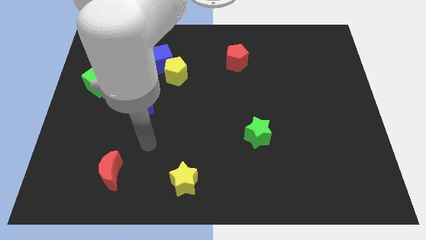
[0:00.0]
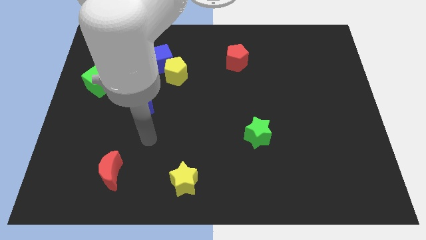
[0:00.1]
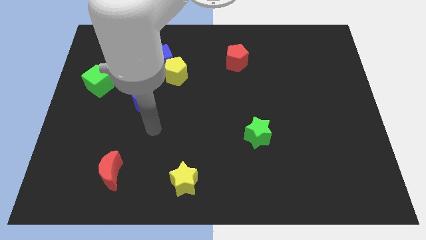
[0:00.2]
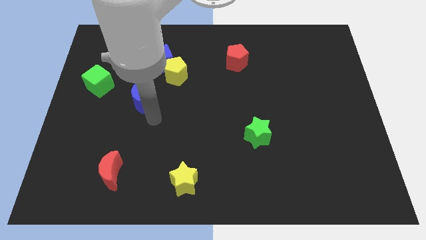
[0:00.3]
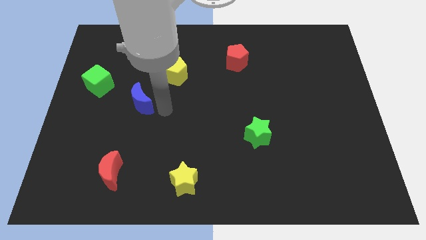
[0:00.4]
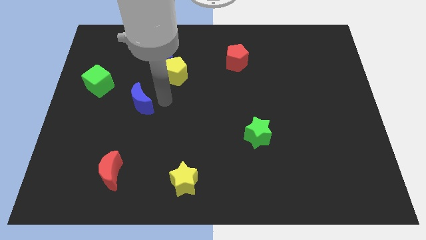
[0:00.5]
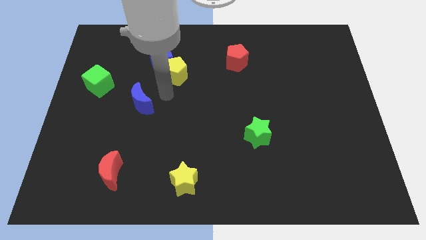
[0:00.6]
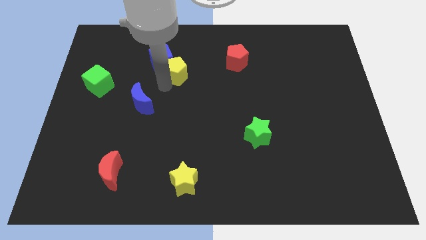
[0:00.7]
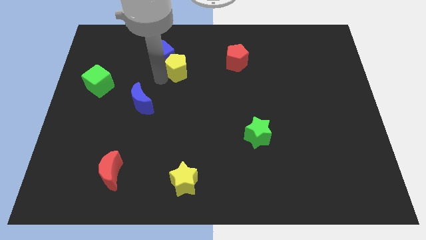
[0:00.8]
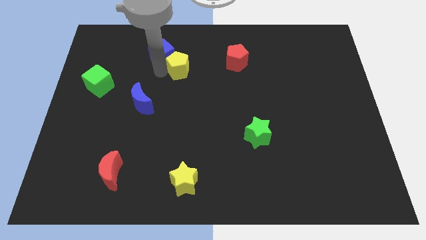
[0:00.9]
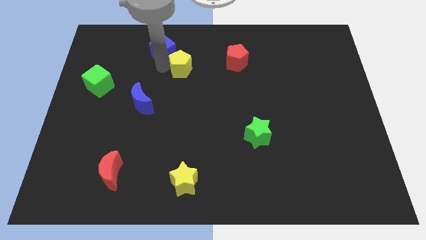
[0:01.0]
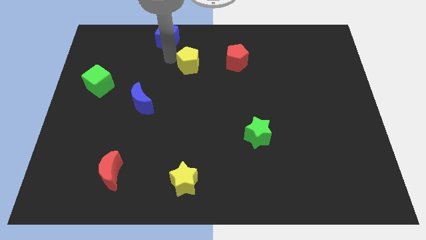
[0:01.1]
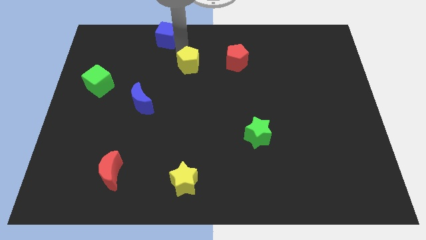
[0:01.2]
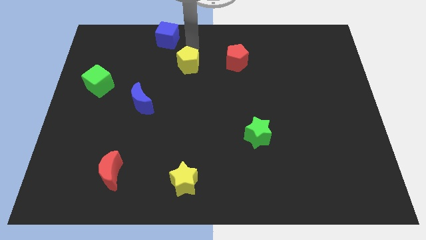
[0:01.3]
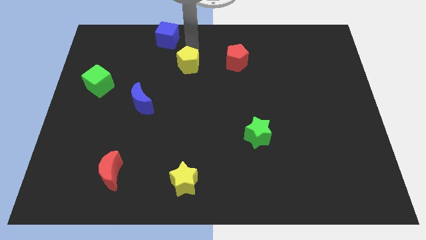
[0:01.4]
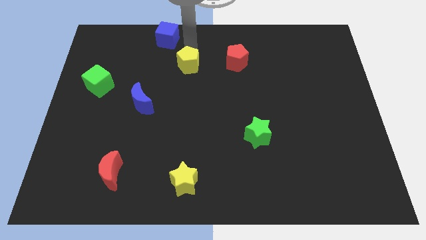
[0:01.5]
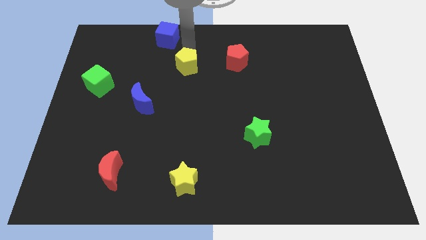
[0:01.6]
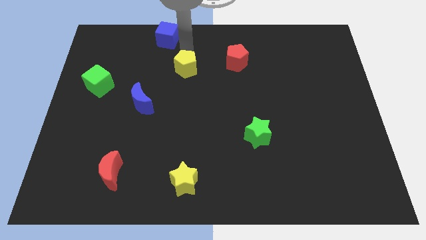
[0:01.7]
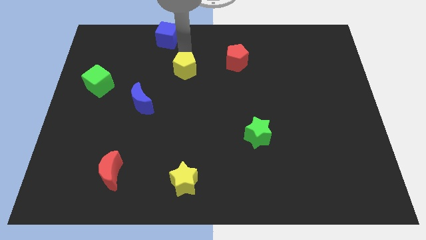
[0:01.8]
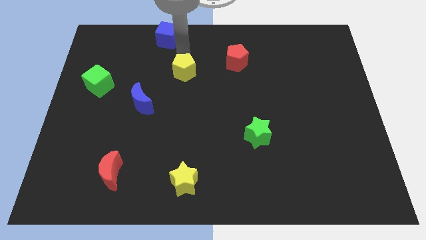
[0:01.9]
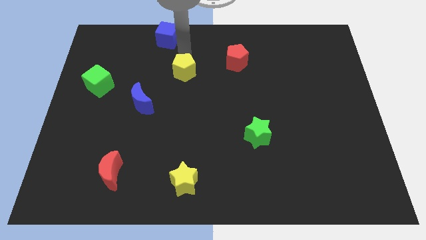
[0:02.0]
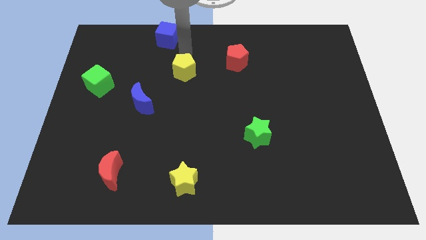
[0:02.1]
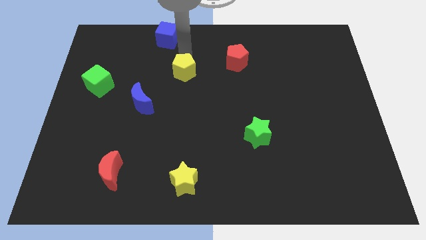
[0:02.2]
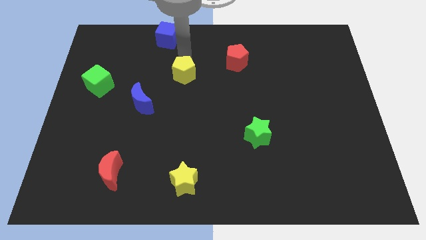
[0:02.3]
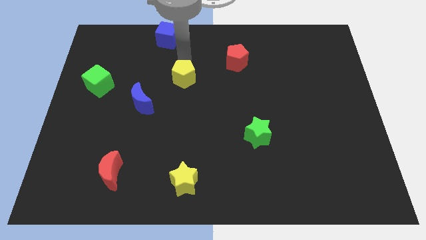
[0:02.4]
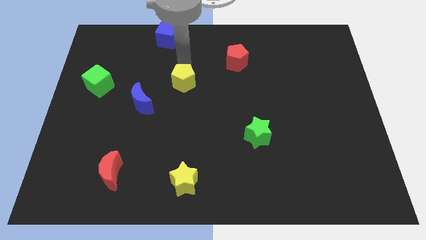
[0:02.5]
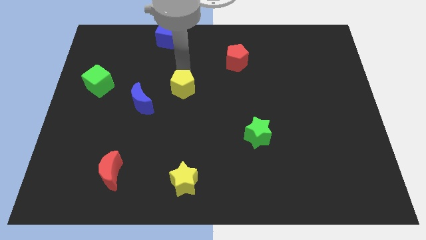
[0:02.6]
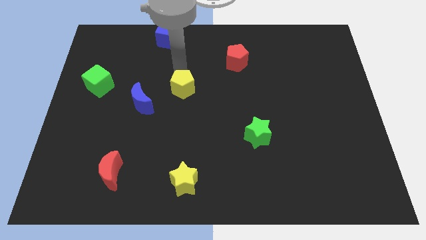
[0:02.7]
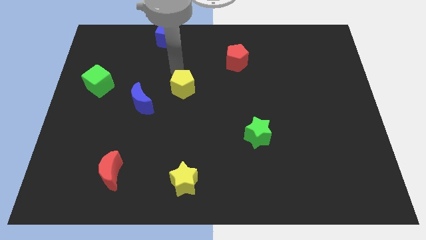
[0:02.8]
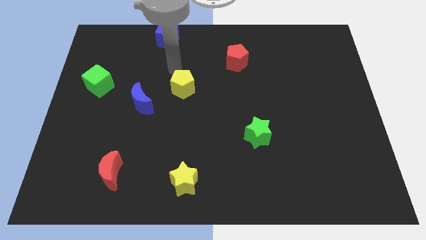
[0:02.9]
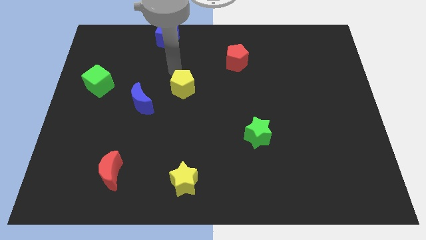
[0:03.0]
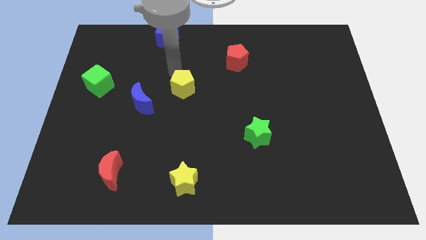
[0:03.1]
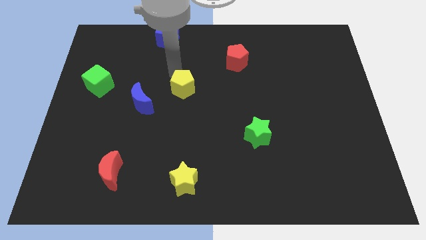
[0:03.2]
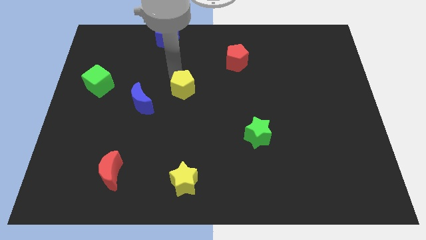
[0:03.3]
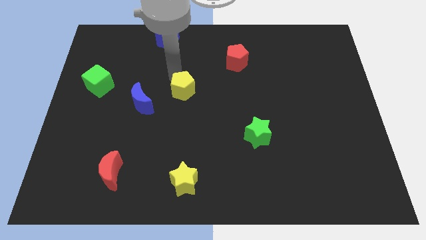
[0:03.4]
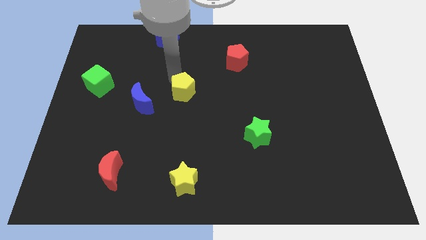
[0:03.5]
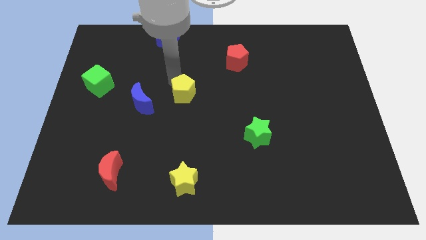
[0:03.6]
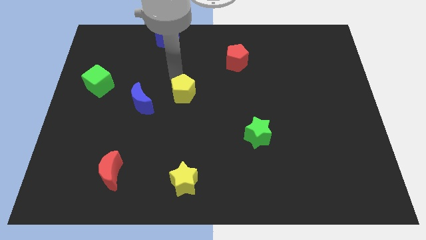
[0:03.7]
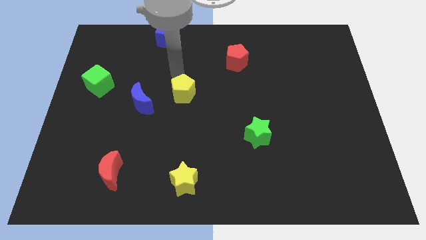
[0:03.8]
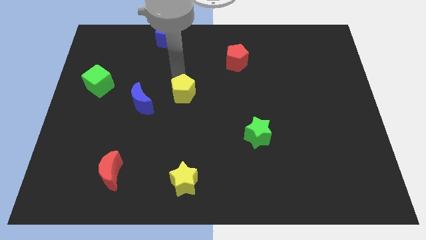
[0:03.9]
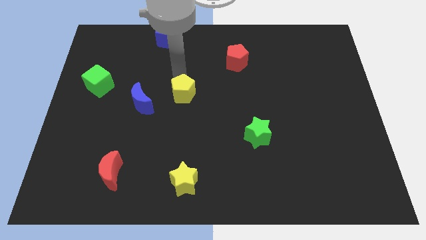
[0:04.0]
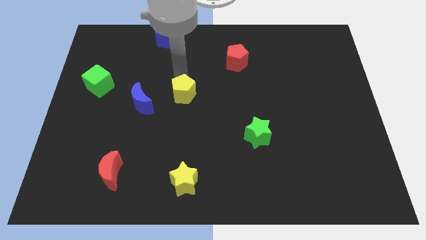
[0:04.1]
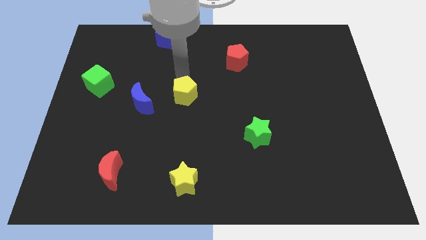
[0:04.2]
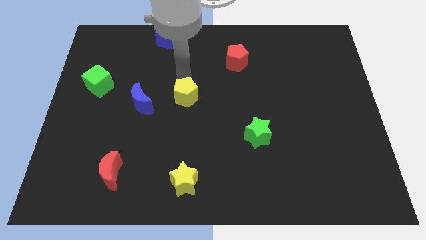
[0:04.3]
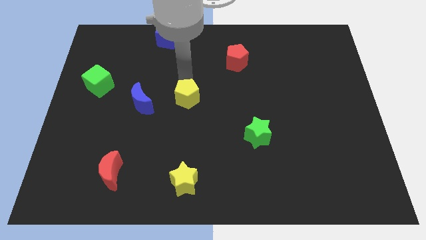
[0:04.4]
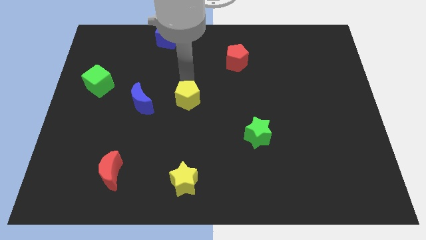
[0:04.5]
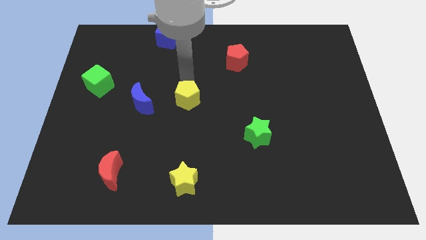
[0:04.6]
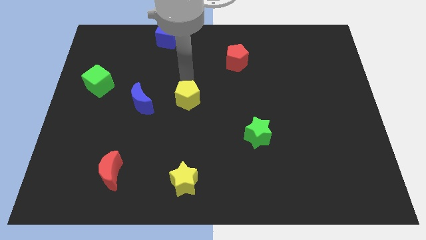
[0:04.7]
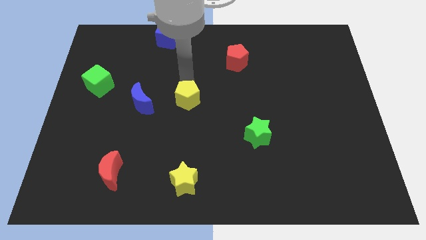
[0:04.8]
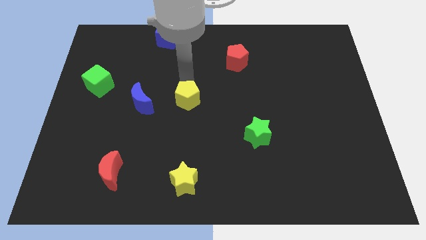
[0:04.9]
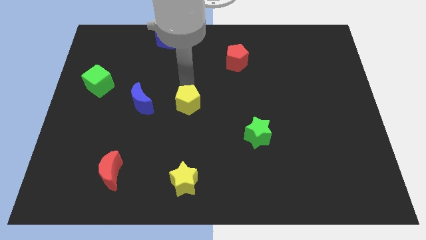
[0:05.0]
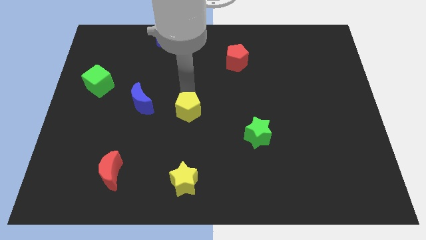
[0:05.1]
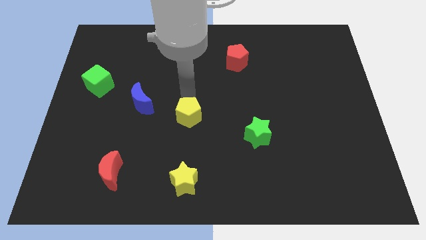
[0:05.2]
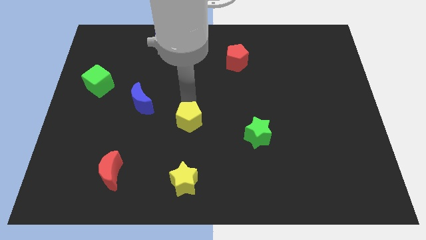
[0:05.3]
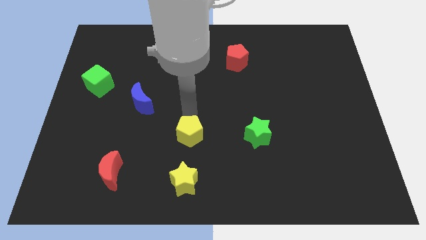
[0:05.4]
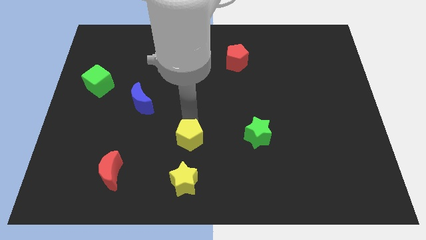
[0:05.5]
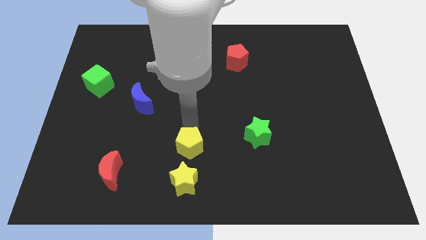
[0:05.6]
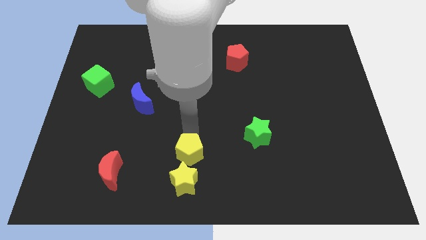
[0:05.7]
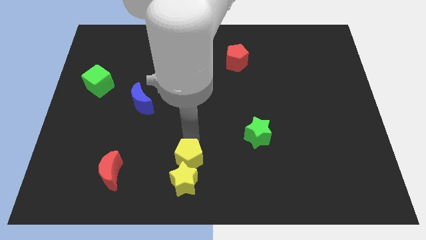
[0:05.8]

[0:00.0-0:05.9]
move the yellow pentagon close to the yellow star

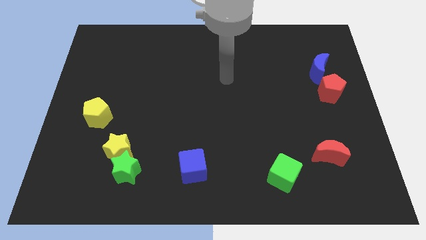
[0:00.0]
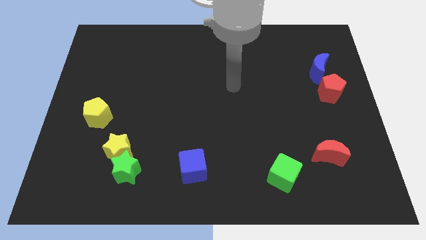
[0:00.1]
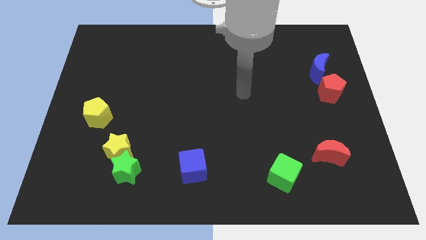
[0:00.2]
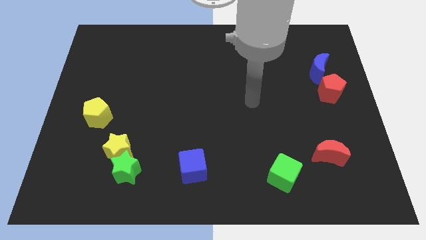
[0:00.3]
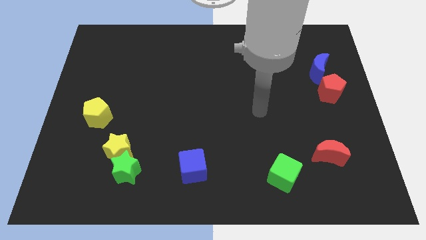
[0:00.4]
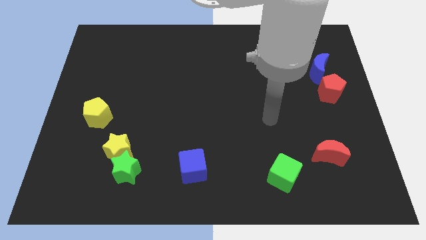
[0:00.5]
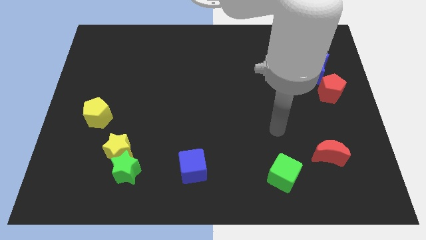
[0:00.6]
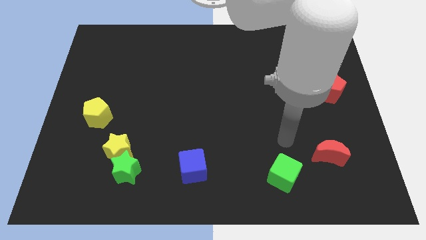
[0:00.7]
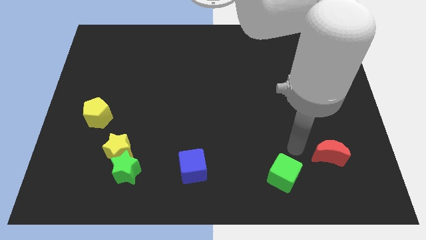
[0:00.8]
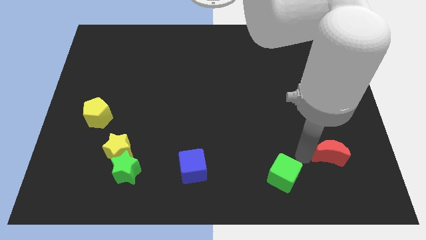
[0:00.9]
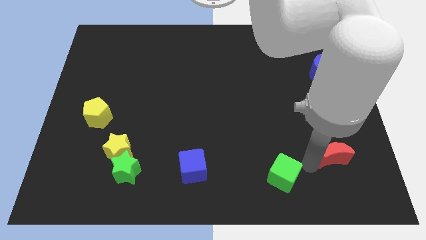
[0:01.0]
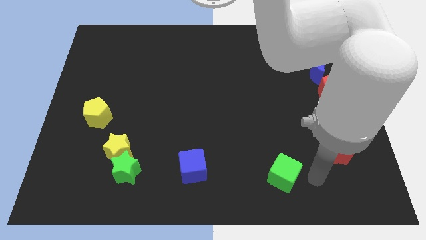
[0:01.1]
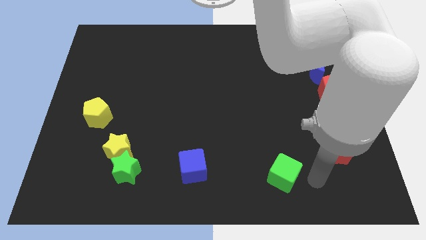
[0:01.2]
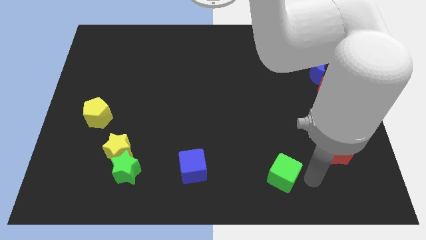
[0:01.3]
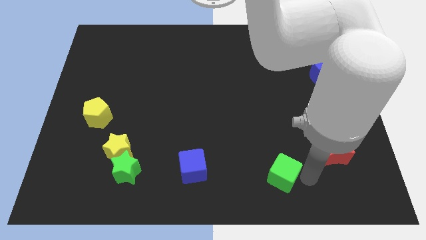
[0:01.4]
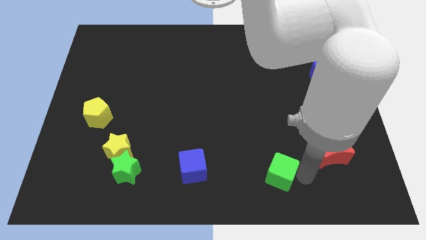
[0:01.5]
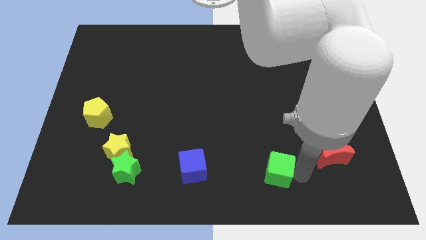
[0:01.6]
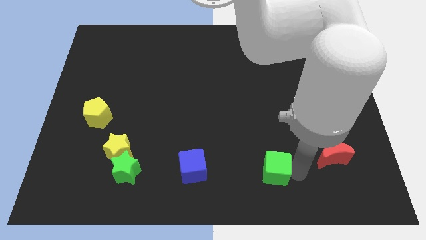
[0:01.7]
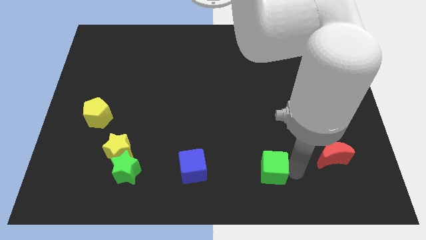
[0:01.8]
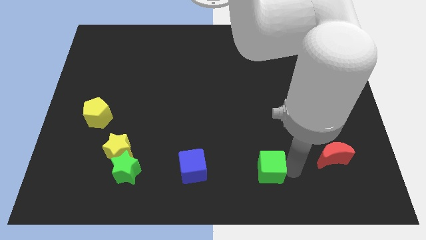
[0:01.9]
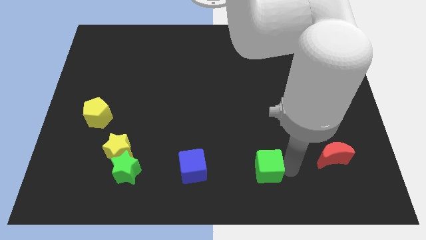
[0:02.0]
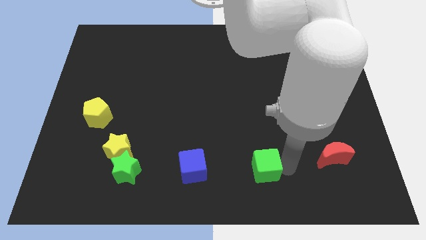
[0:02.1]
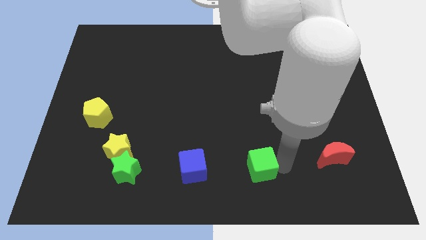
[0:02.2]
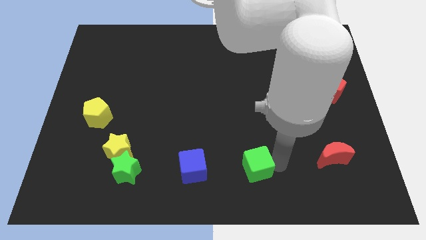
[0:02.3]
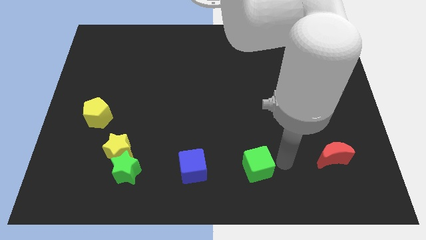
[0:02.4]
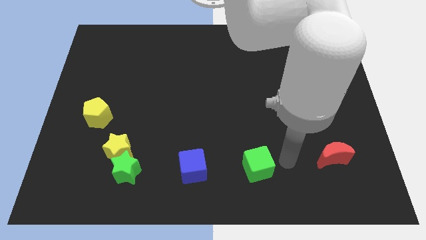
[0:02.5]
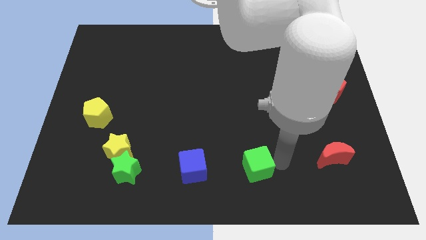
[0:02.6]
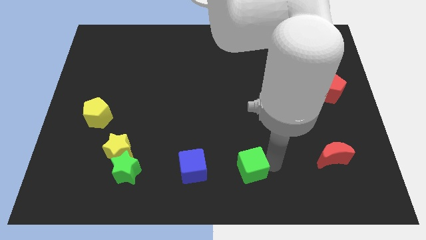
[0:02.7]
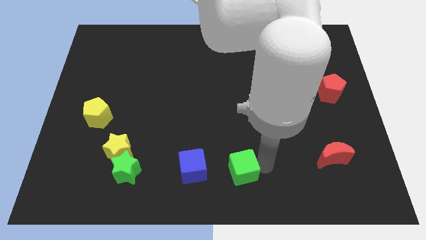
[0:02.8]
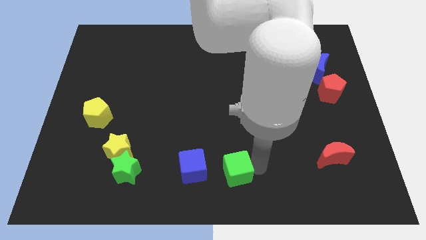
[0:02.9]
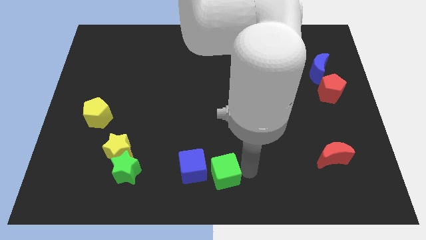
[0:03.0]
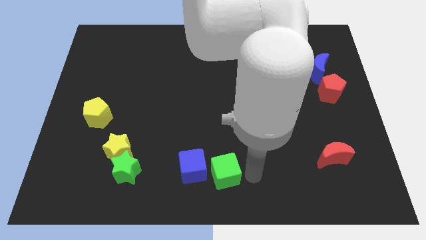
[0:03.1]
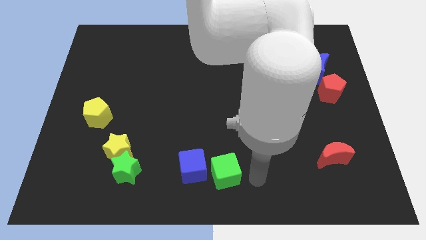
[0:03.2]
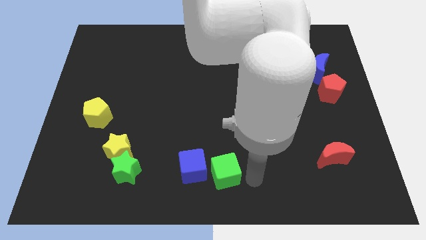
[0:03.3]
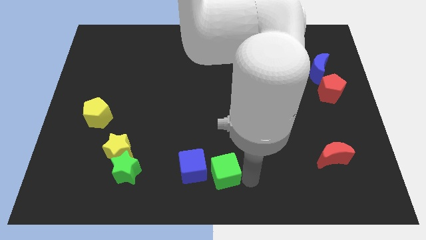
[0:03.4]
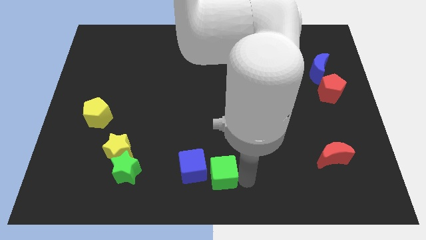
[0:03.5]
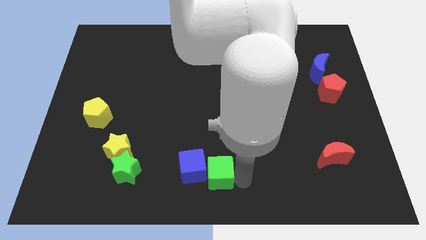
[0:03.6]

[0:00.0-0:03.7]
move the green cube next to the blue cube
